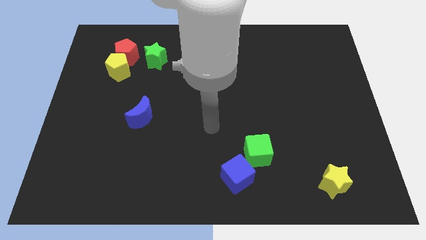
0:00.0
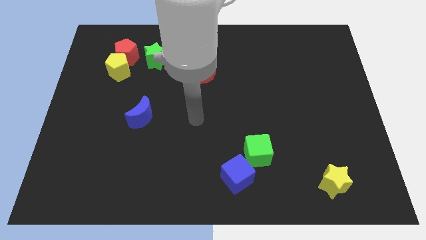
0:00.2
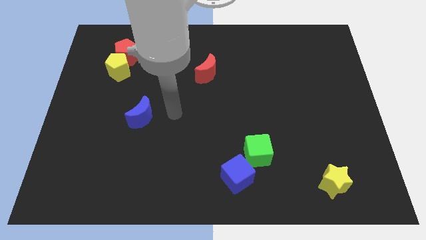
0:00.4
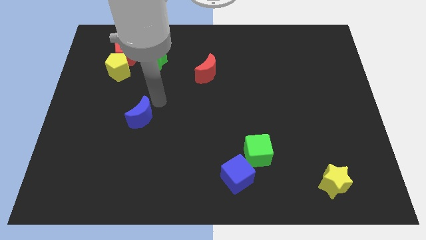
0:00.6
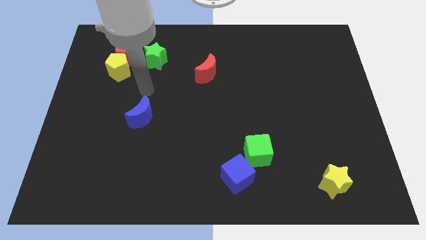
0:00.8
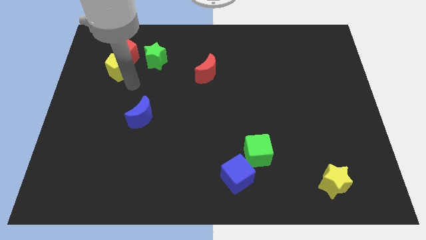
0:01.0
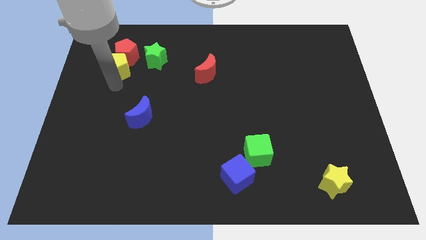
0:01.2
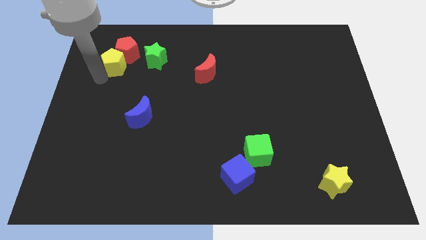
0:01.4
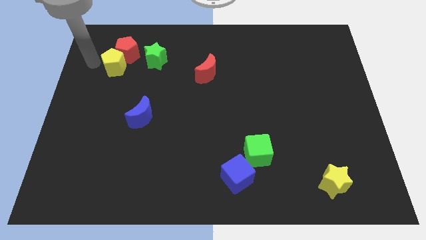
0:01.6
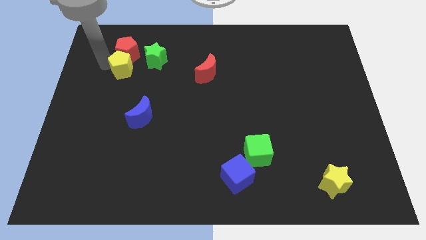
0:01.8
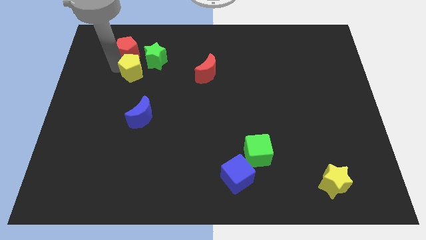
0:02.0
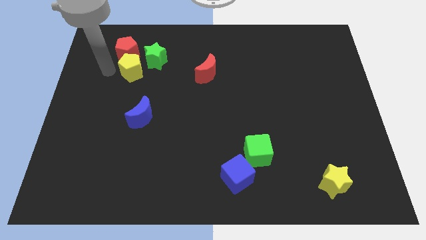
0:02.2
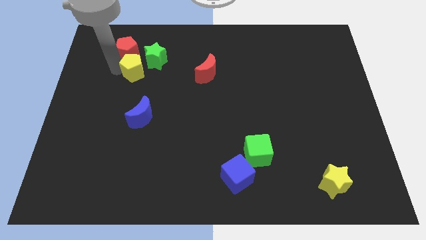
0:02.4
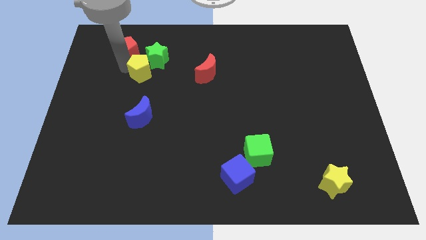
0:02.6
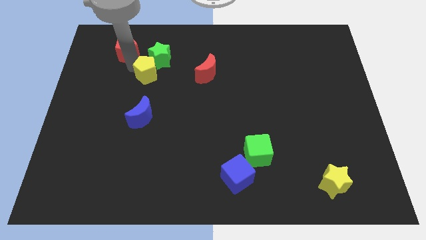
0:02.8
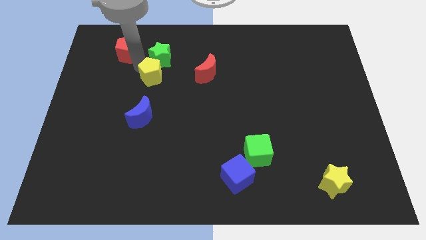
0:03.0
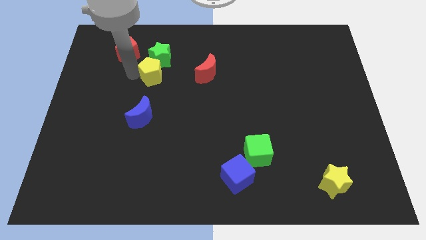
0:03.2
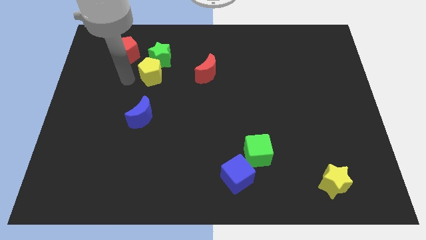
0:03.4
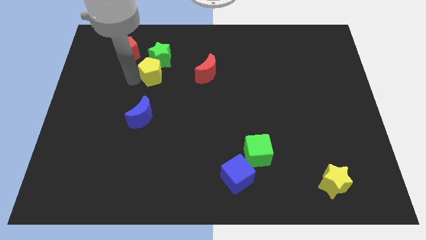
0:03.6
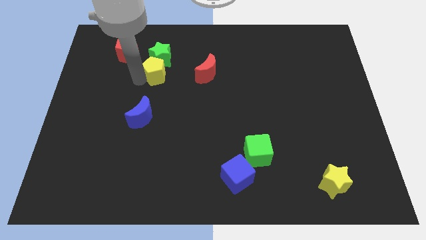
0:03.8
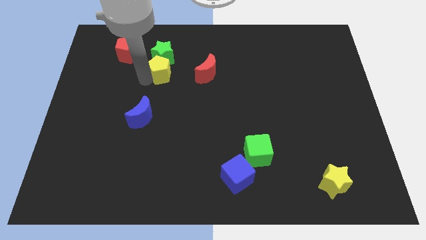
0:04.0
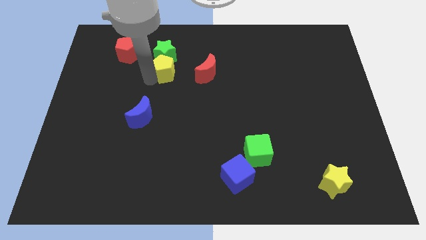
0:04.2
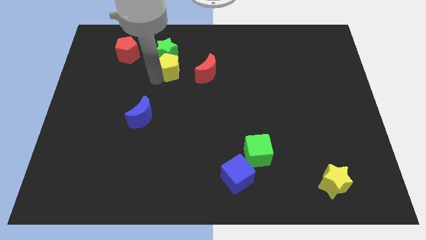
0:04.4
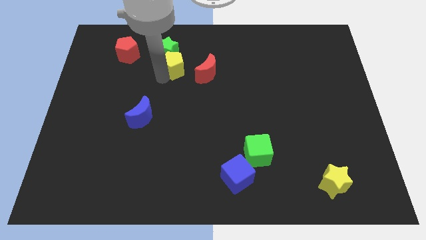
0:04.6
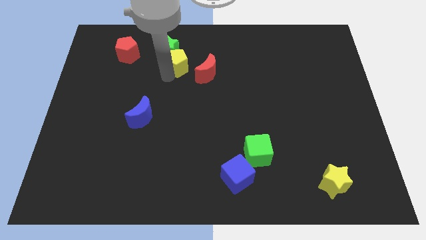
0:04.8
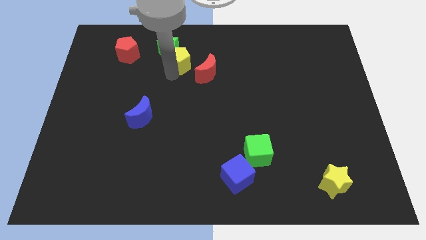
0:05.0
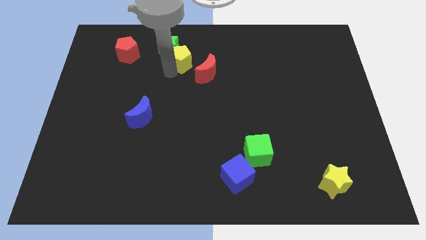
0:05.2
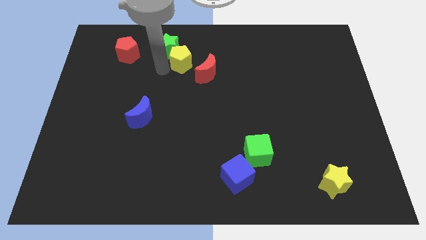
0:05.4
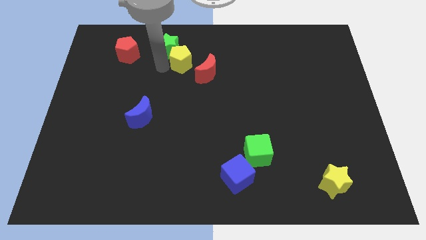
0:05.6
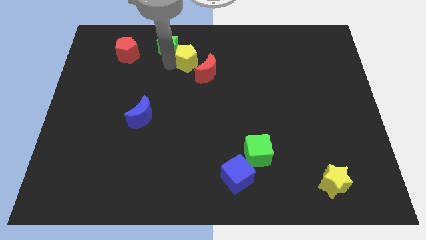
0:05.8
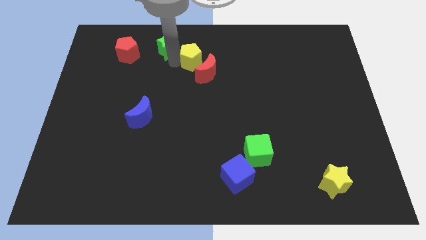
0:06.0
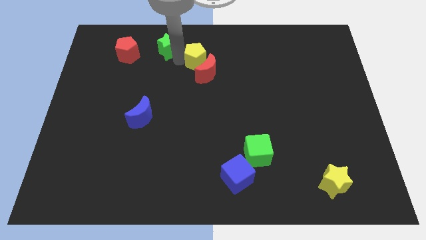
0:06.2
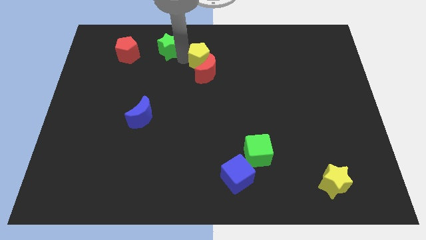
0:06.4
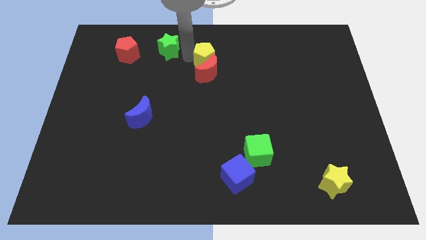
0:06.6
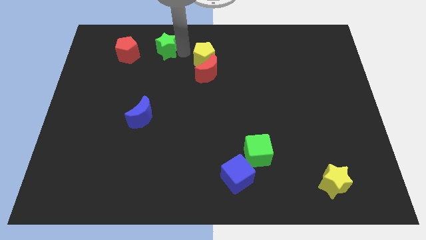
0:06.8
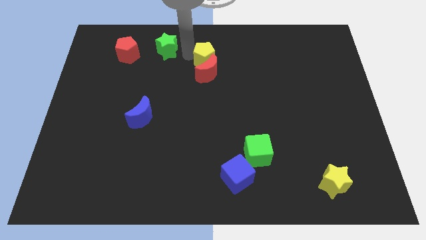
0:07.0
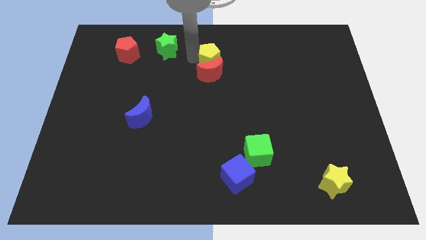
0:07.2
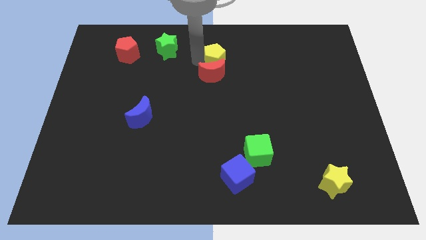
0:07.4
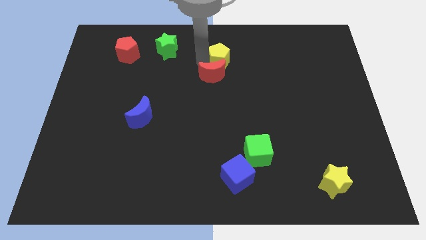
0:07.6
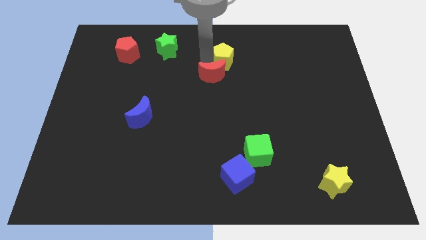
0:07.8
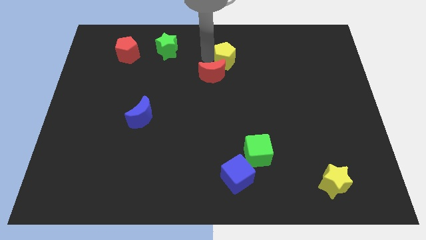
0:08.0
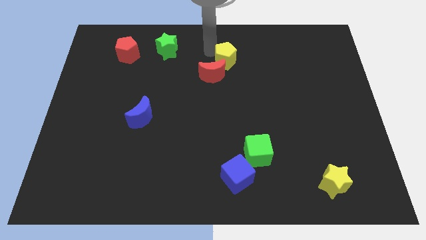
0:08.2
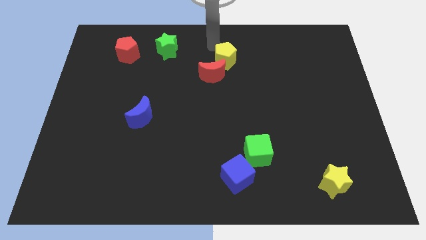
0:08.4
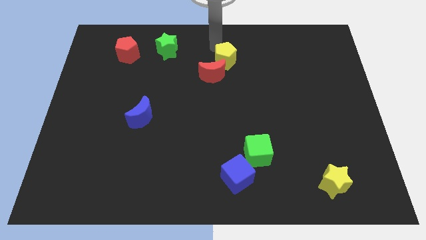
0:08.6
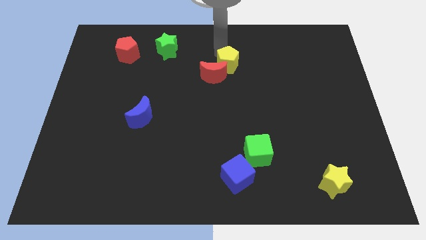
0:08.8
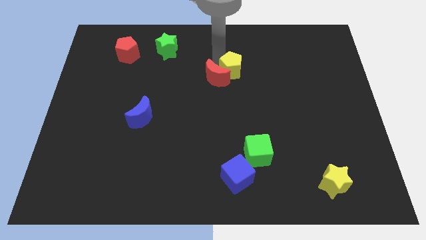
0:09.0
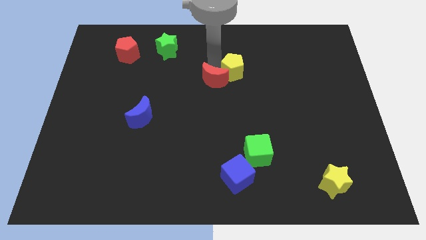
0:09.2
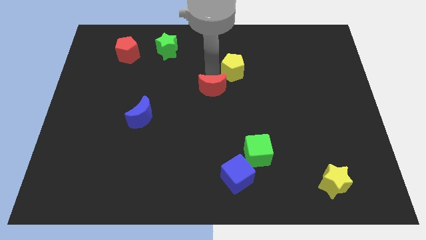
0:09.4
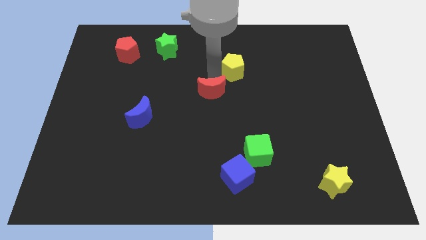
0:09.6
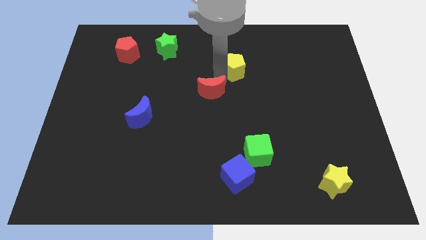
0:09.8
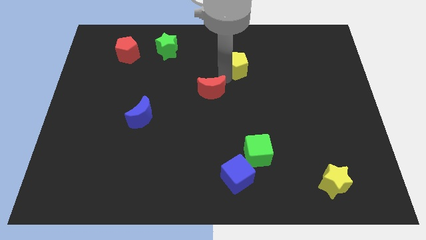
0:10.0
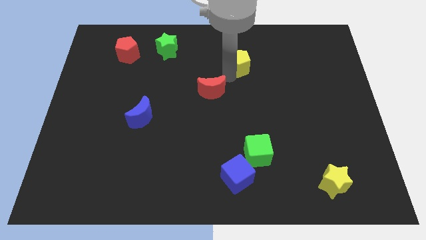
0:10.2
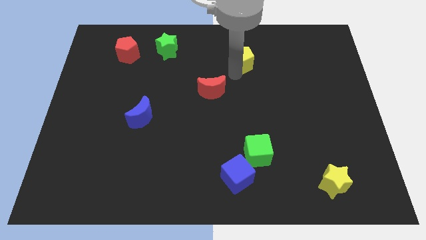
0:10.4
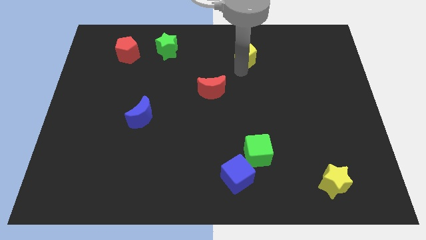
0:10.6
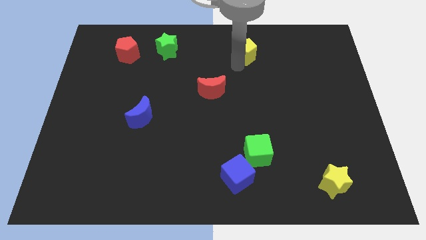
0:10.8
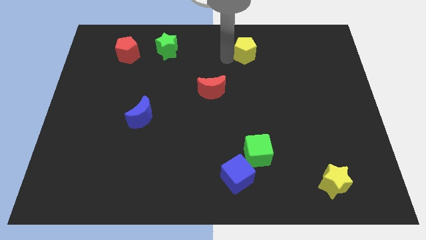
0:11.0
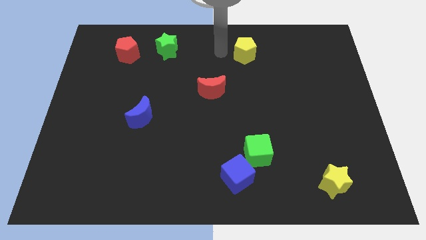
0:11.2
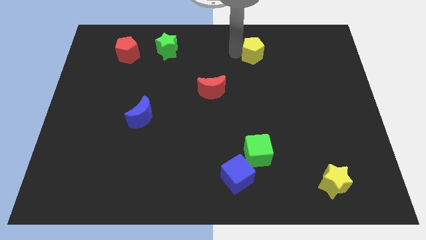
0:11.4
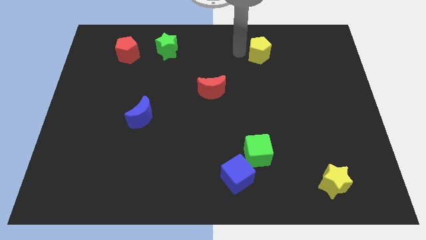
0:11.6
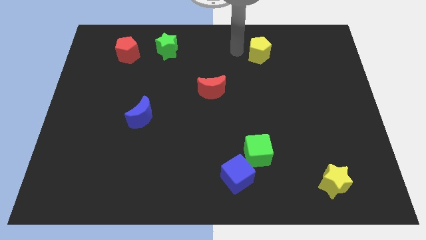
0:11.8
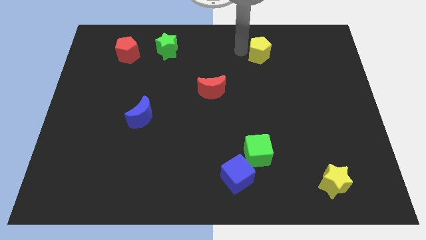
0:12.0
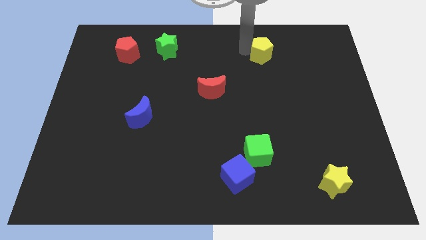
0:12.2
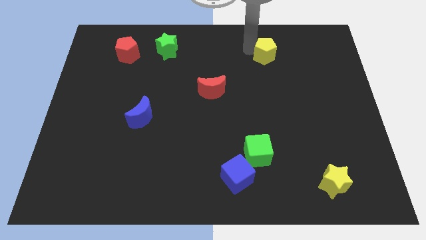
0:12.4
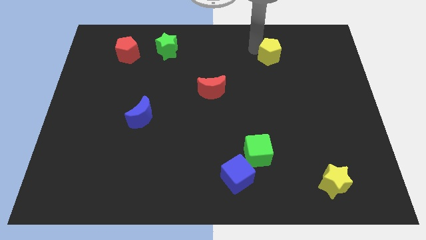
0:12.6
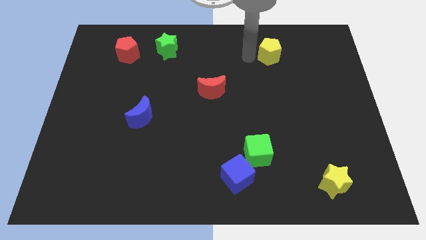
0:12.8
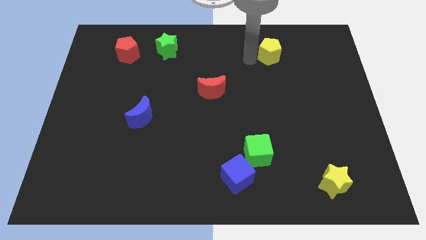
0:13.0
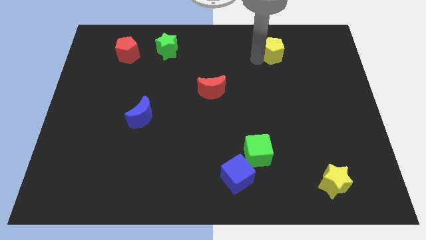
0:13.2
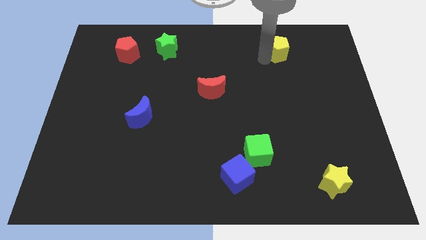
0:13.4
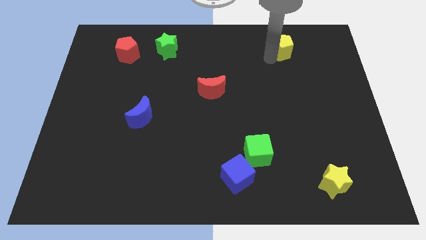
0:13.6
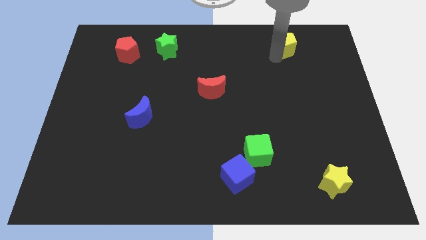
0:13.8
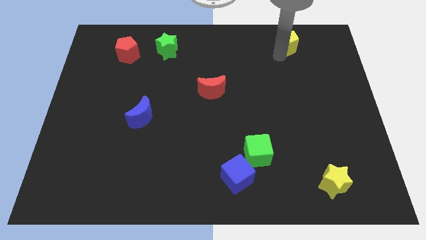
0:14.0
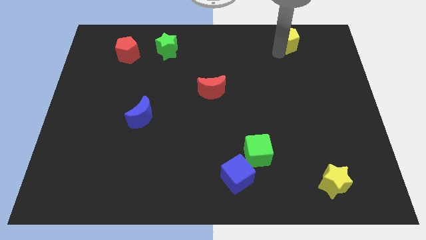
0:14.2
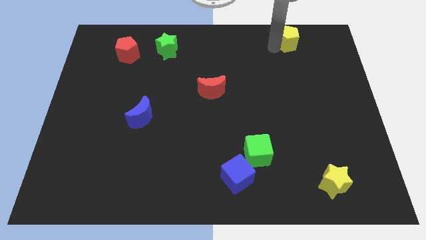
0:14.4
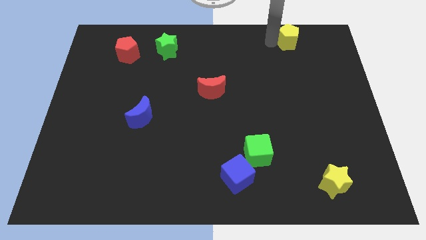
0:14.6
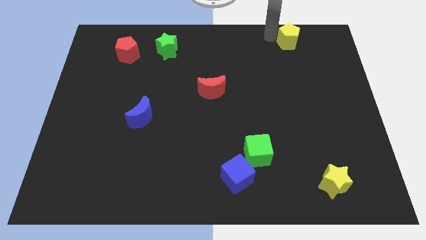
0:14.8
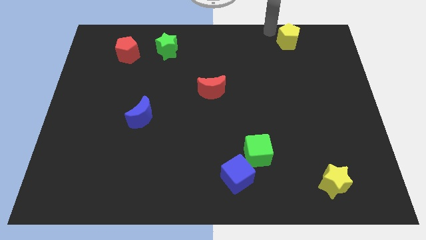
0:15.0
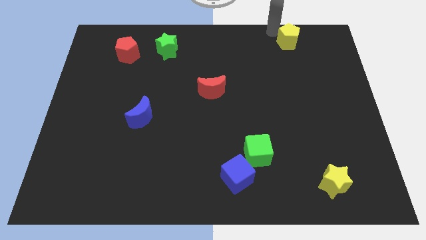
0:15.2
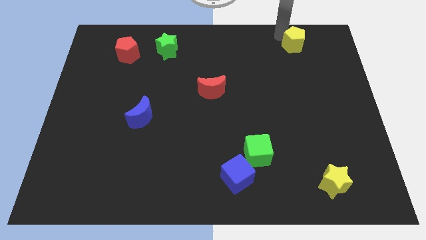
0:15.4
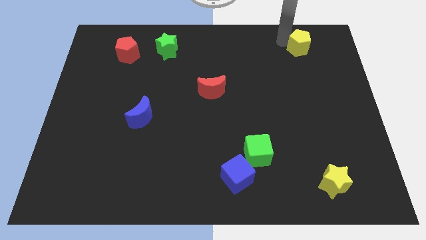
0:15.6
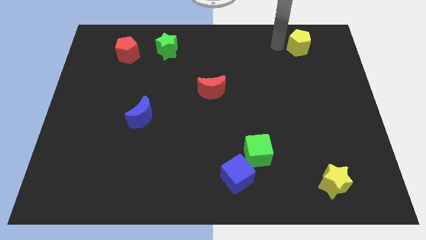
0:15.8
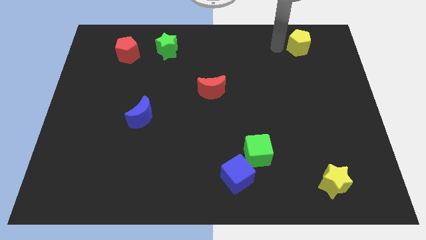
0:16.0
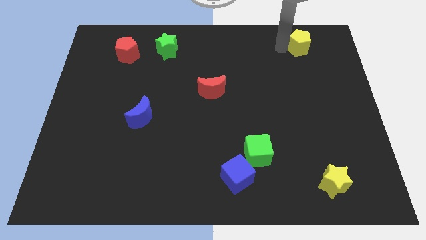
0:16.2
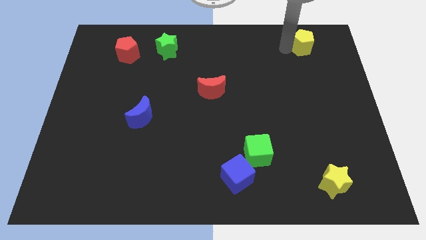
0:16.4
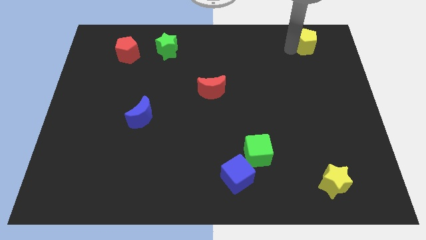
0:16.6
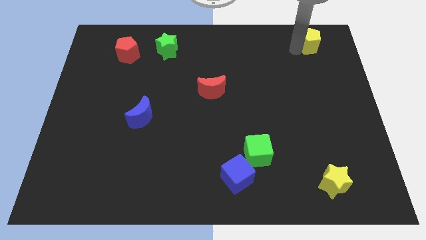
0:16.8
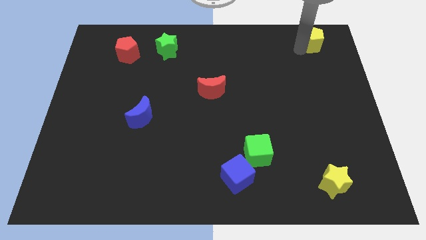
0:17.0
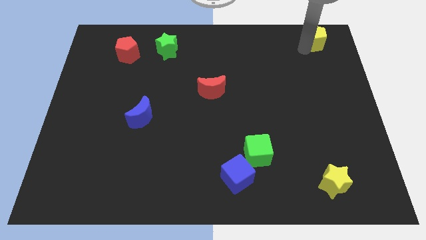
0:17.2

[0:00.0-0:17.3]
move the yellow pentagon to the upper right corner
